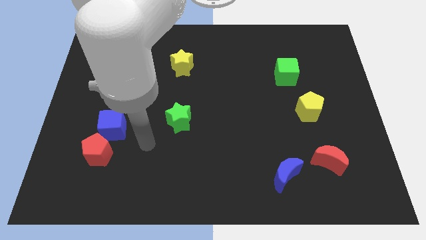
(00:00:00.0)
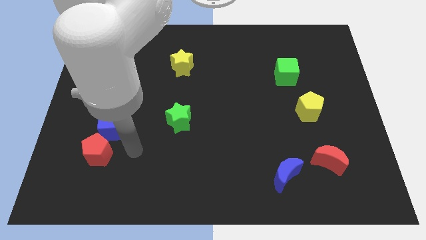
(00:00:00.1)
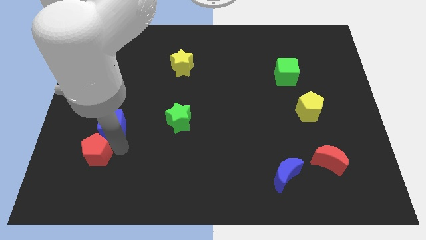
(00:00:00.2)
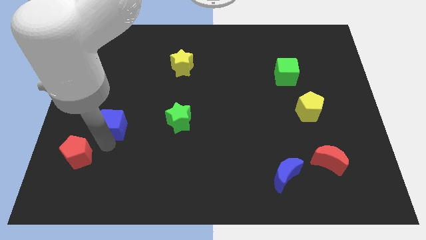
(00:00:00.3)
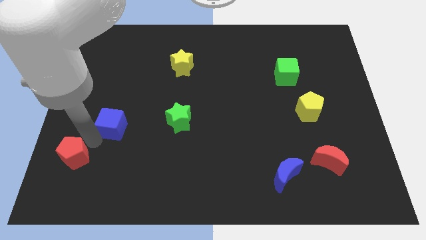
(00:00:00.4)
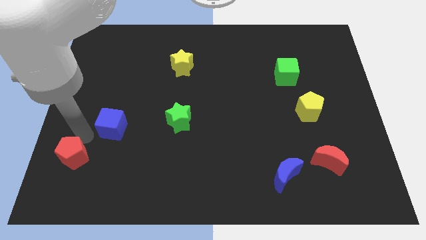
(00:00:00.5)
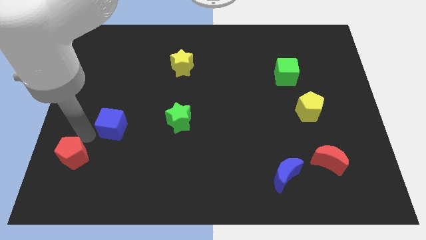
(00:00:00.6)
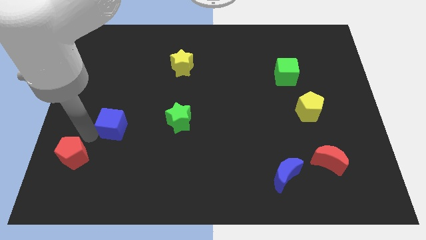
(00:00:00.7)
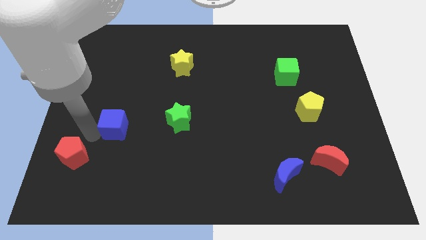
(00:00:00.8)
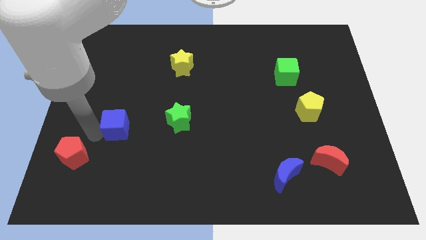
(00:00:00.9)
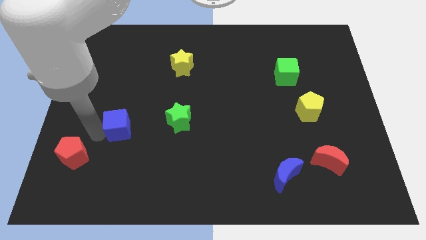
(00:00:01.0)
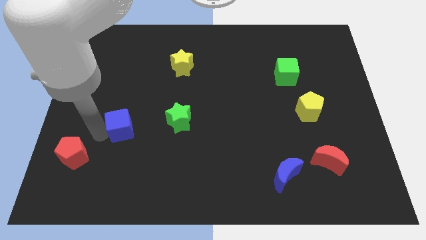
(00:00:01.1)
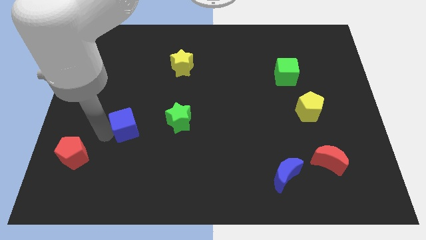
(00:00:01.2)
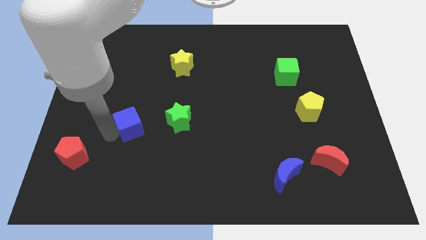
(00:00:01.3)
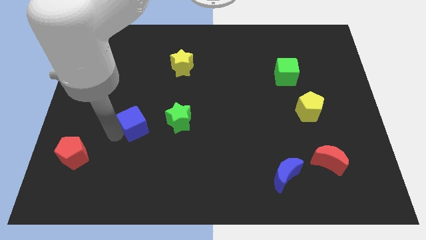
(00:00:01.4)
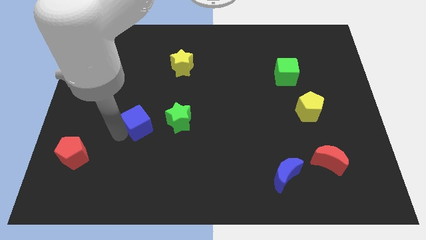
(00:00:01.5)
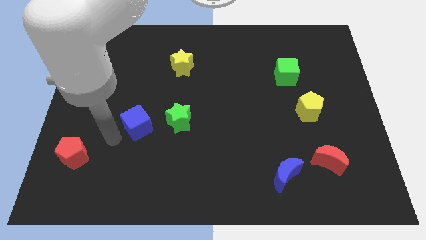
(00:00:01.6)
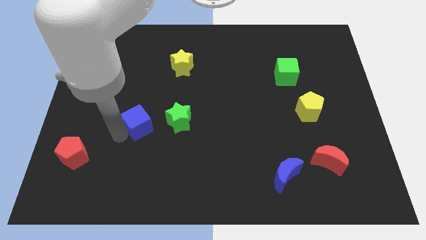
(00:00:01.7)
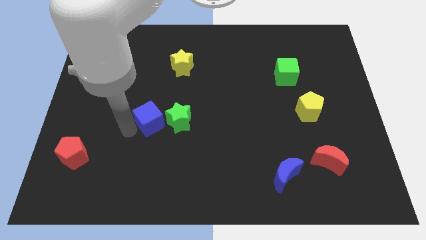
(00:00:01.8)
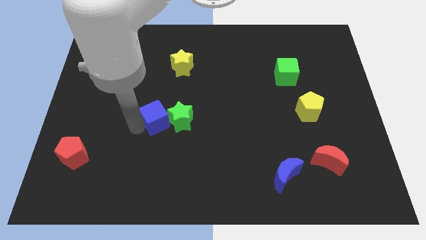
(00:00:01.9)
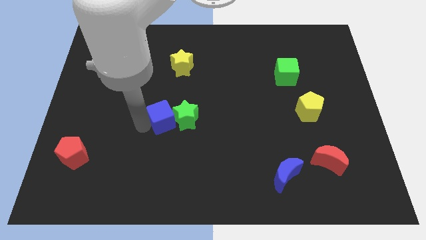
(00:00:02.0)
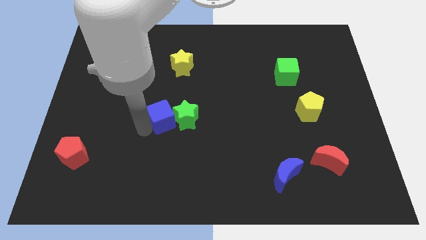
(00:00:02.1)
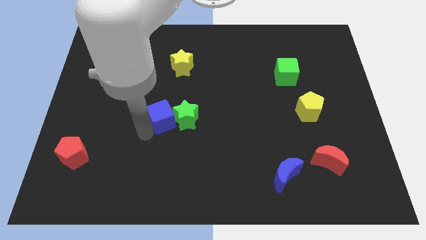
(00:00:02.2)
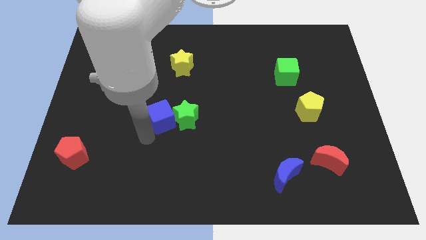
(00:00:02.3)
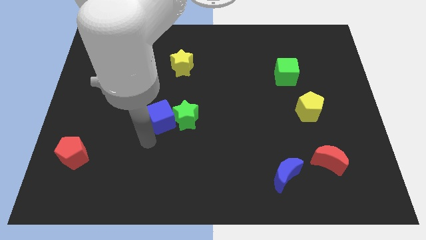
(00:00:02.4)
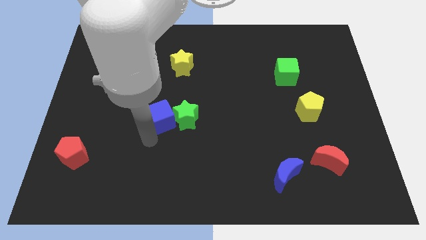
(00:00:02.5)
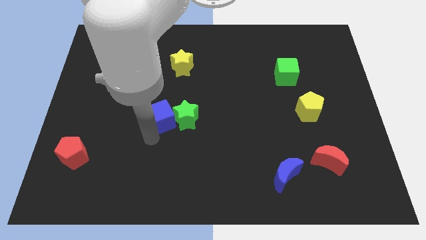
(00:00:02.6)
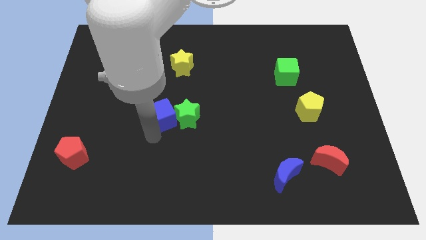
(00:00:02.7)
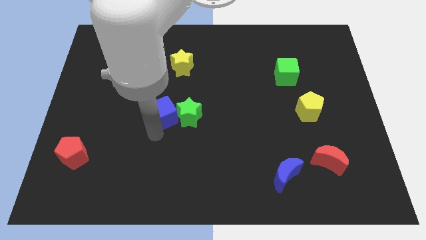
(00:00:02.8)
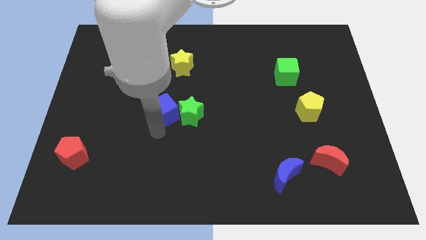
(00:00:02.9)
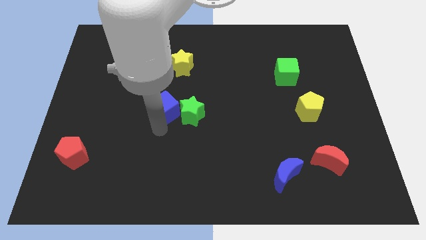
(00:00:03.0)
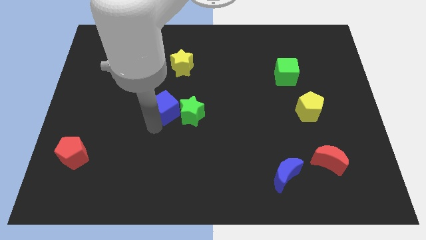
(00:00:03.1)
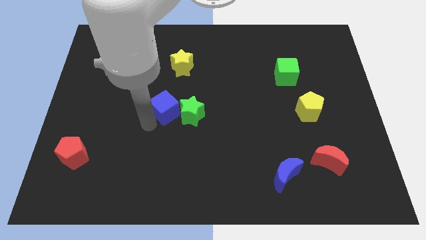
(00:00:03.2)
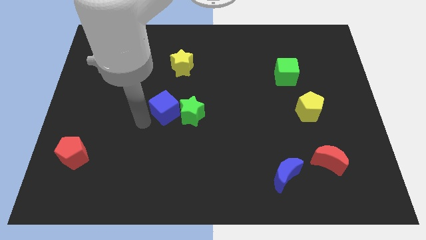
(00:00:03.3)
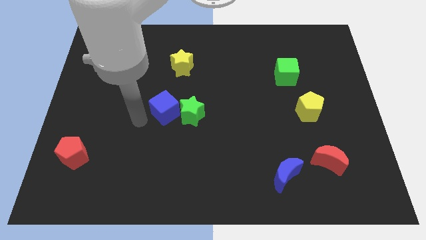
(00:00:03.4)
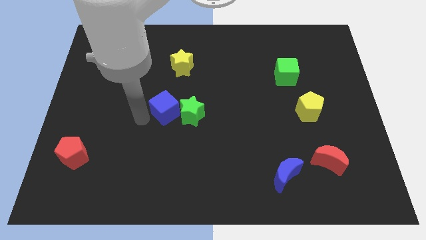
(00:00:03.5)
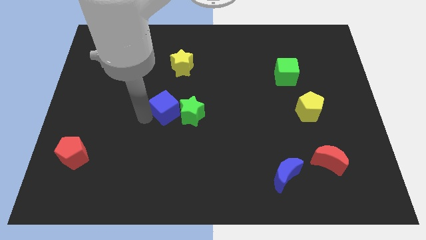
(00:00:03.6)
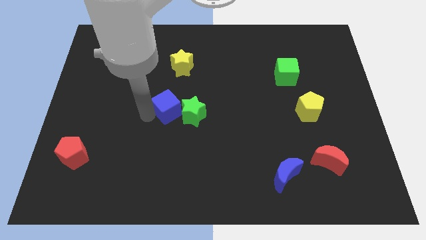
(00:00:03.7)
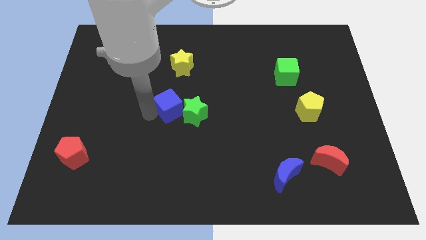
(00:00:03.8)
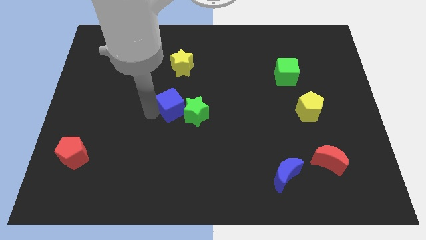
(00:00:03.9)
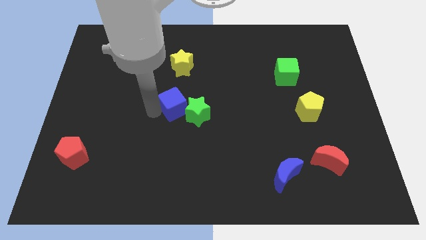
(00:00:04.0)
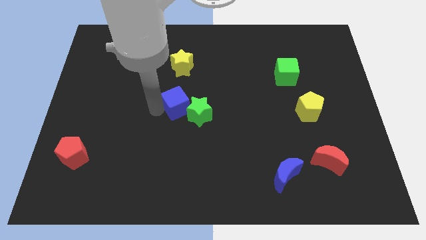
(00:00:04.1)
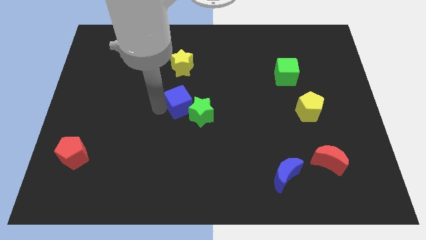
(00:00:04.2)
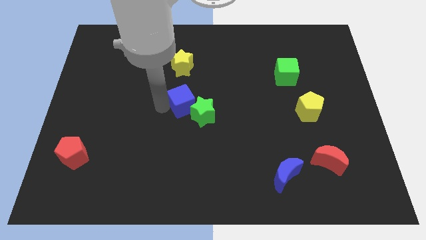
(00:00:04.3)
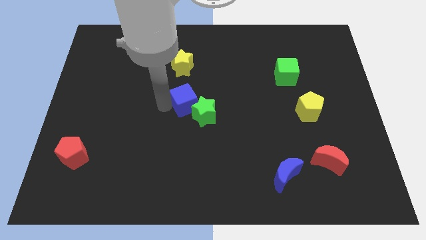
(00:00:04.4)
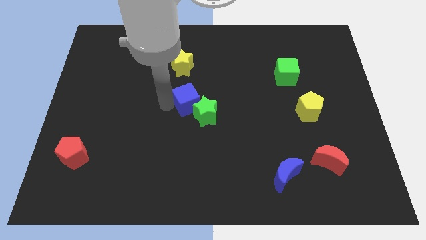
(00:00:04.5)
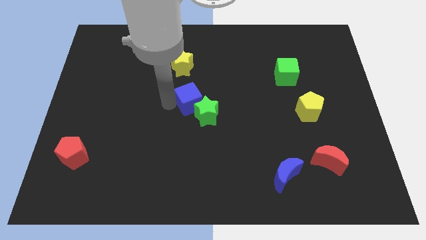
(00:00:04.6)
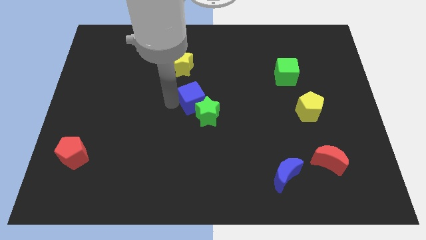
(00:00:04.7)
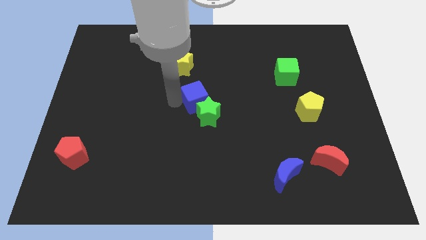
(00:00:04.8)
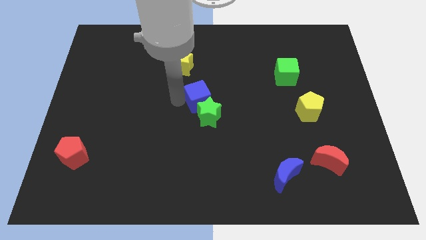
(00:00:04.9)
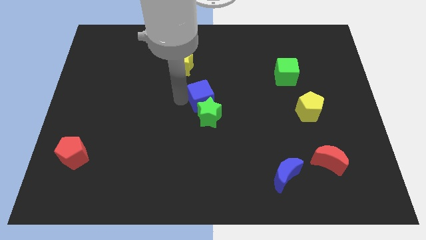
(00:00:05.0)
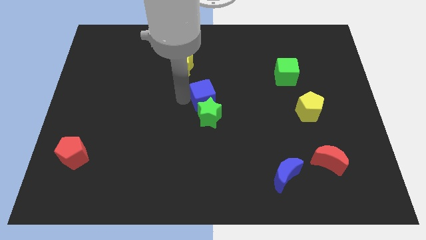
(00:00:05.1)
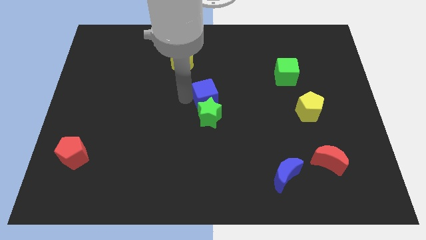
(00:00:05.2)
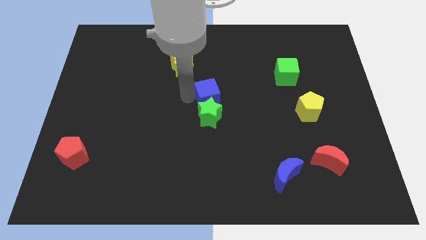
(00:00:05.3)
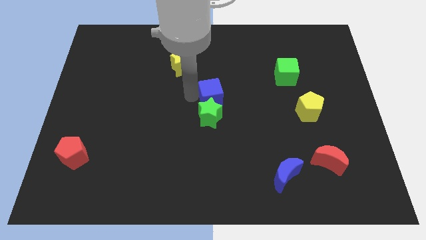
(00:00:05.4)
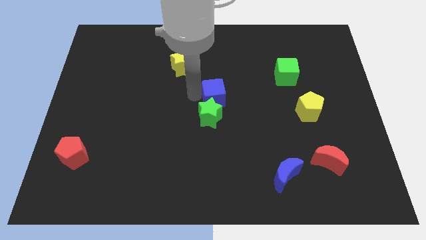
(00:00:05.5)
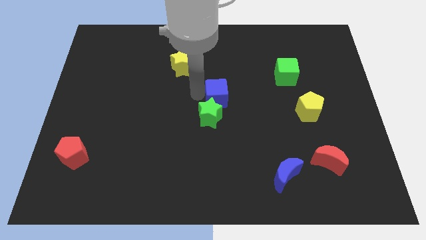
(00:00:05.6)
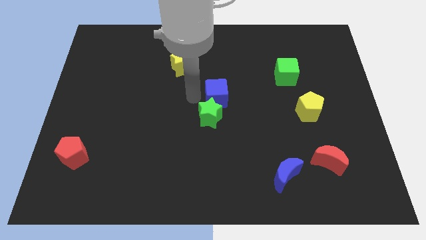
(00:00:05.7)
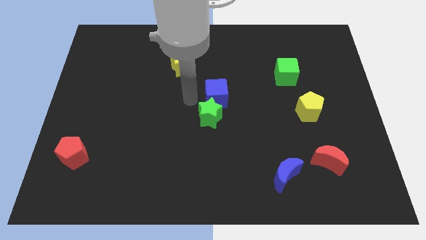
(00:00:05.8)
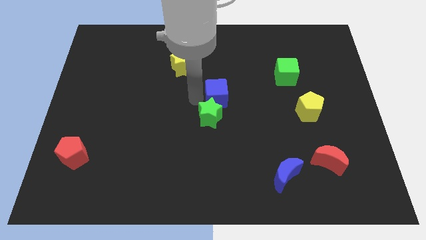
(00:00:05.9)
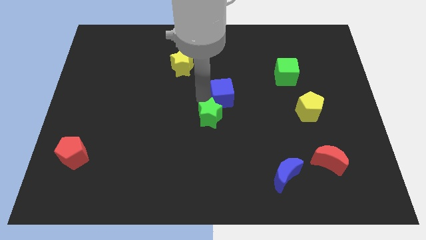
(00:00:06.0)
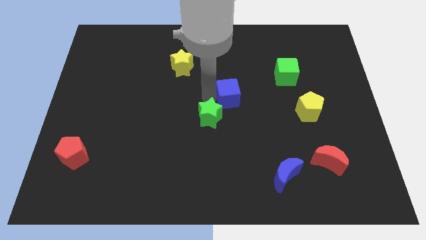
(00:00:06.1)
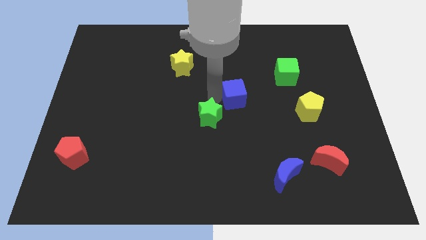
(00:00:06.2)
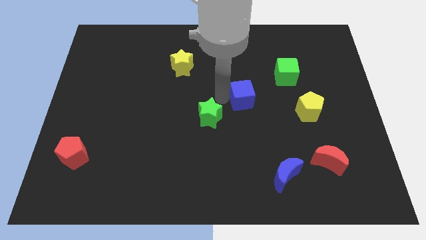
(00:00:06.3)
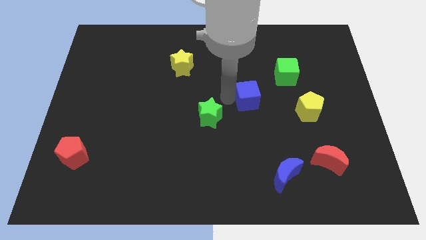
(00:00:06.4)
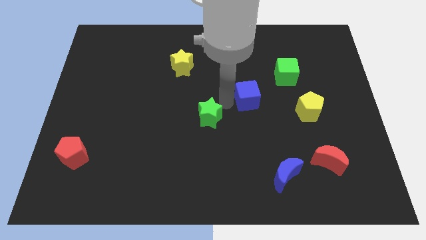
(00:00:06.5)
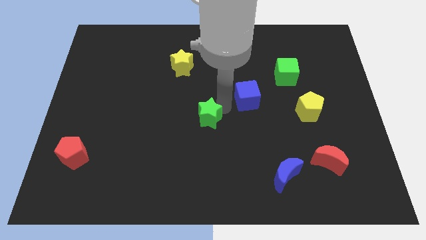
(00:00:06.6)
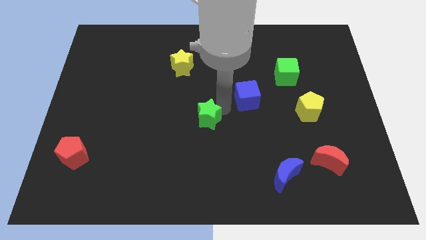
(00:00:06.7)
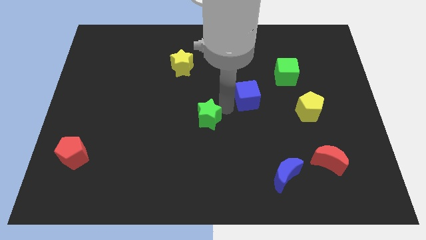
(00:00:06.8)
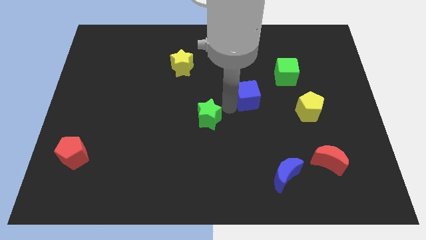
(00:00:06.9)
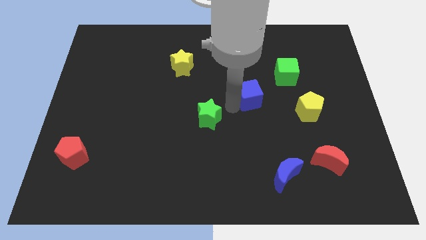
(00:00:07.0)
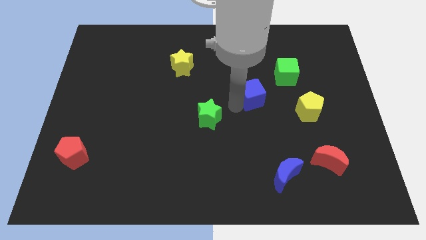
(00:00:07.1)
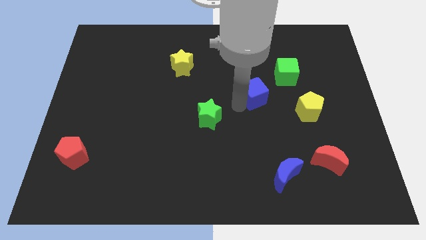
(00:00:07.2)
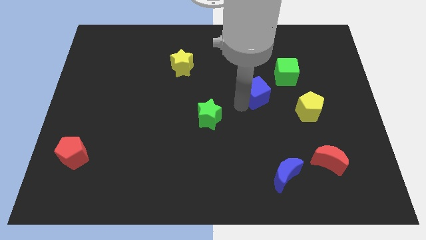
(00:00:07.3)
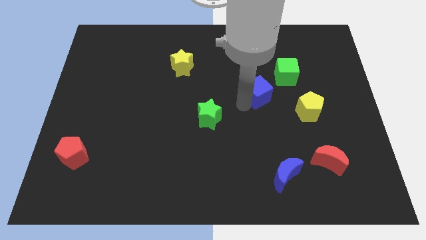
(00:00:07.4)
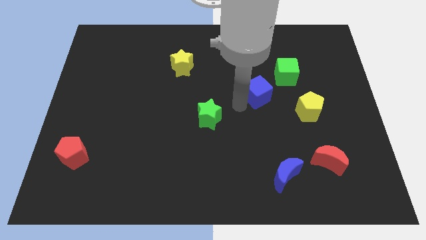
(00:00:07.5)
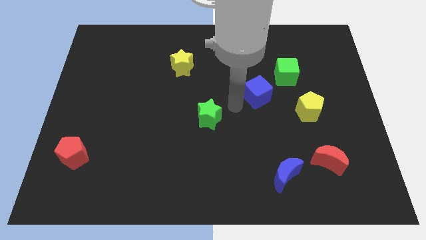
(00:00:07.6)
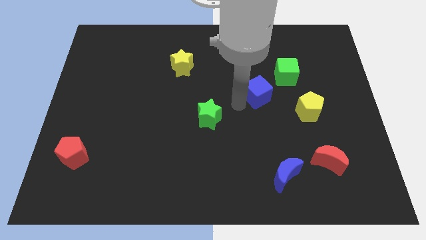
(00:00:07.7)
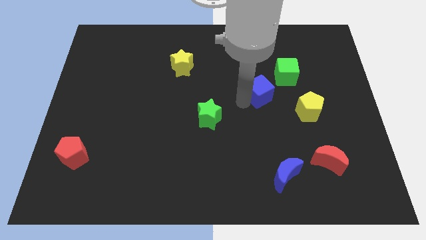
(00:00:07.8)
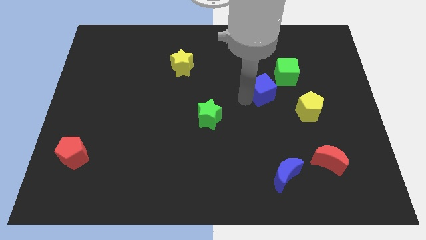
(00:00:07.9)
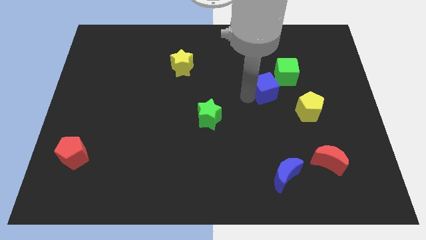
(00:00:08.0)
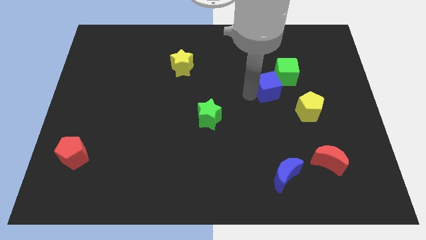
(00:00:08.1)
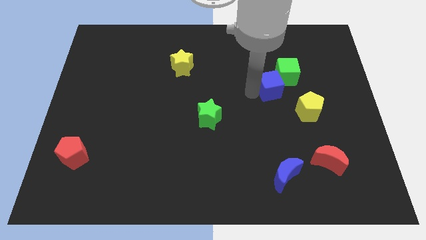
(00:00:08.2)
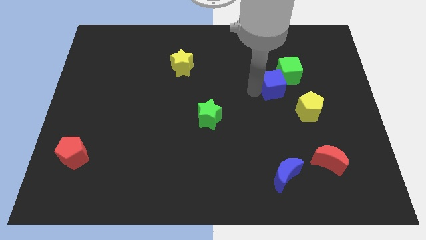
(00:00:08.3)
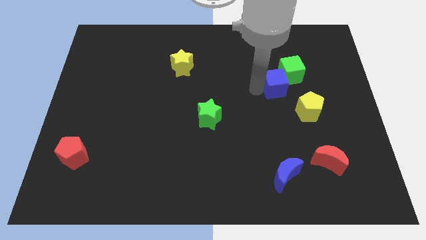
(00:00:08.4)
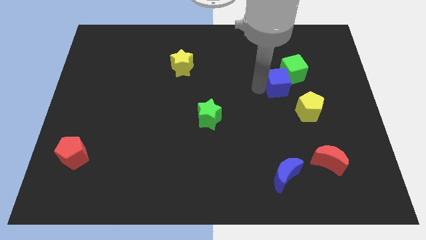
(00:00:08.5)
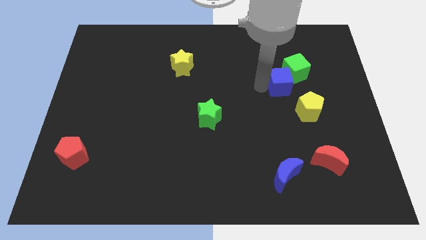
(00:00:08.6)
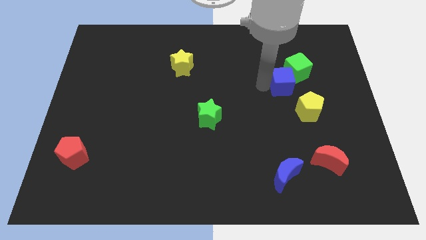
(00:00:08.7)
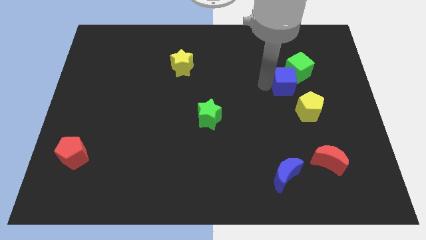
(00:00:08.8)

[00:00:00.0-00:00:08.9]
move the blue cube to the top of the yellow pentagon
